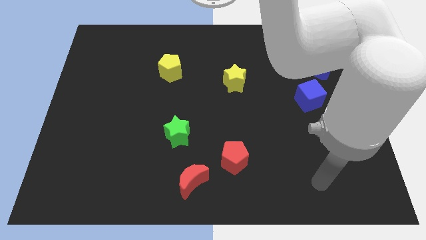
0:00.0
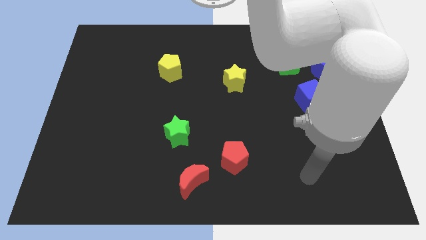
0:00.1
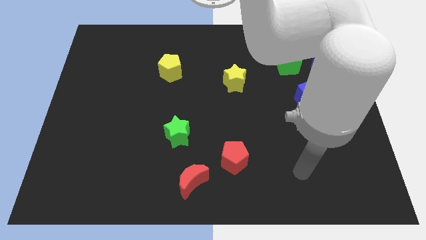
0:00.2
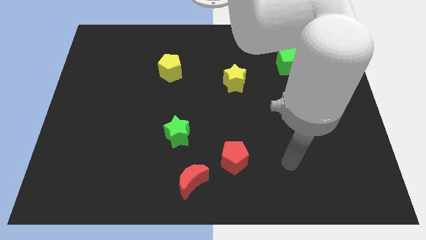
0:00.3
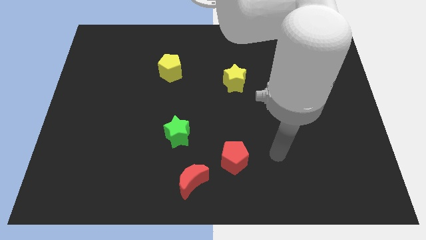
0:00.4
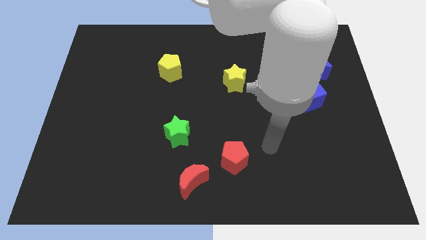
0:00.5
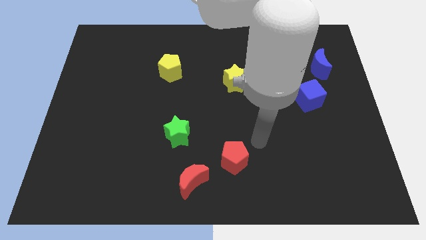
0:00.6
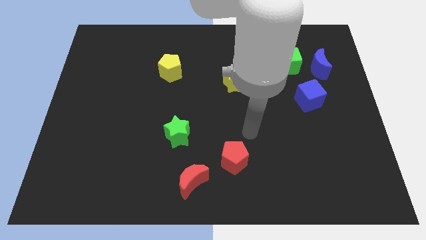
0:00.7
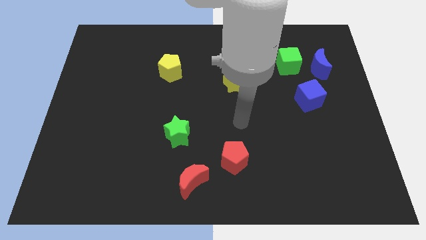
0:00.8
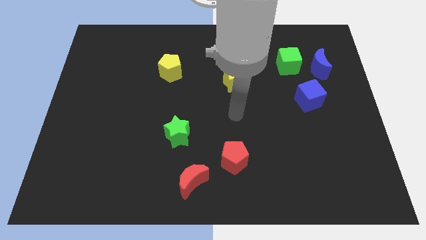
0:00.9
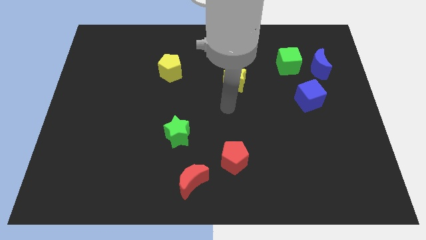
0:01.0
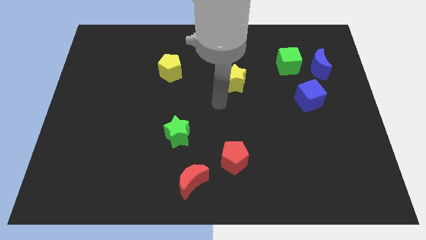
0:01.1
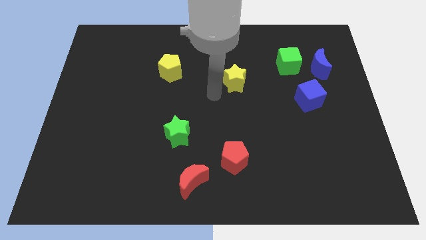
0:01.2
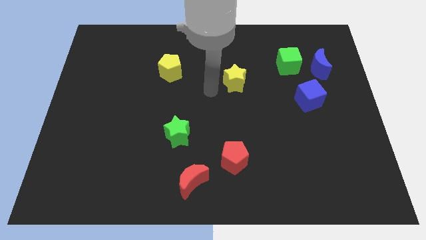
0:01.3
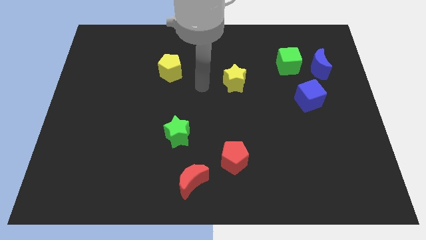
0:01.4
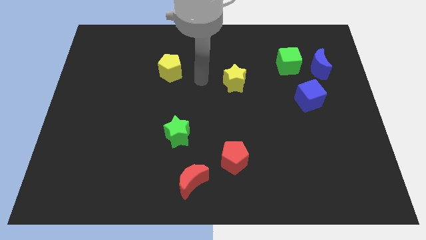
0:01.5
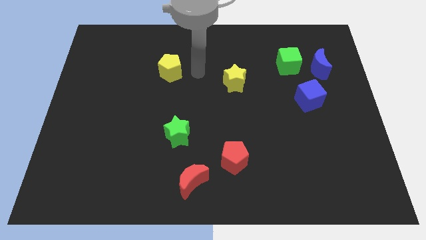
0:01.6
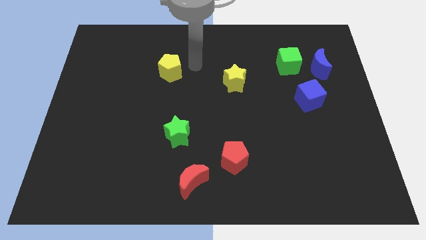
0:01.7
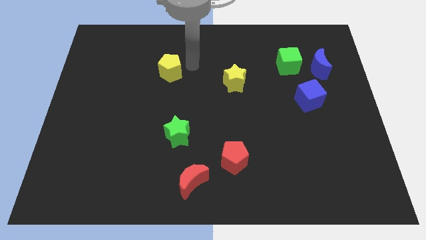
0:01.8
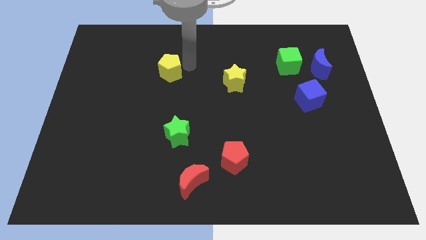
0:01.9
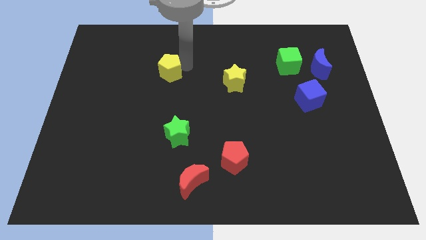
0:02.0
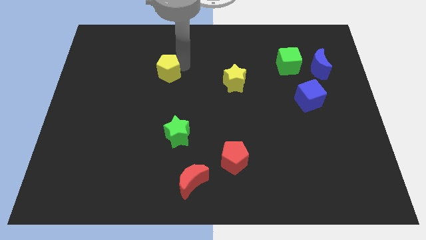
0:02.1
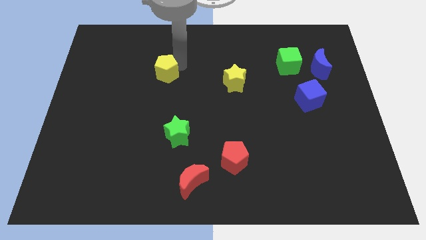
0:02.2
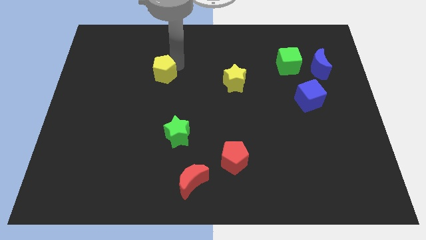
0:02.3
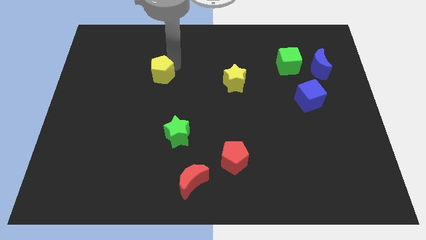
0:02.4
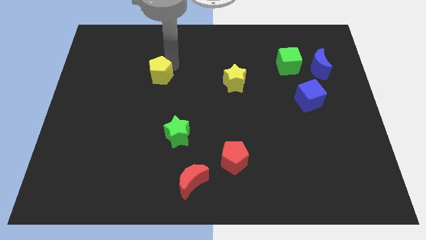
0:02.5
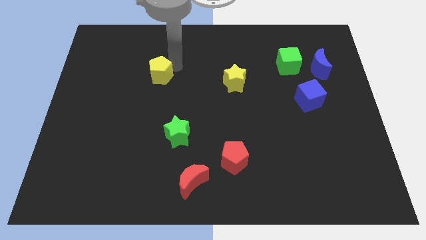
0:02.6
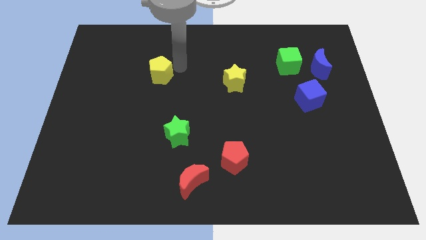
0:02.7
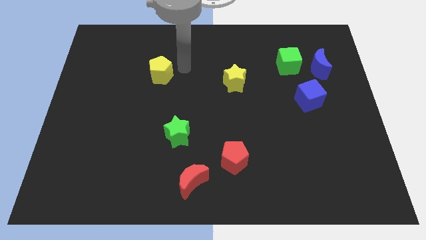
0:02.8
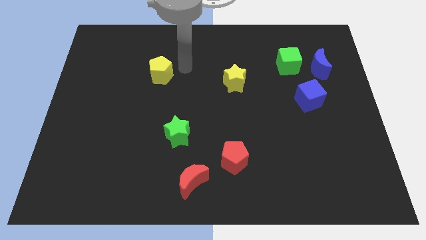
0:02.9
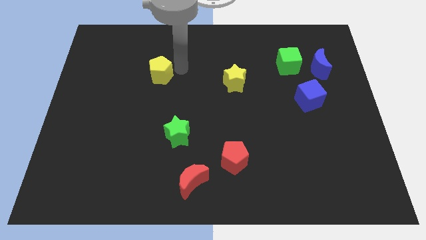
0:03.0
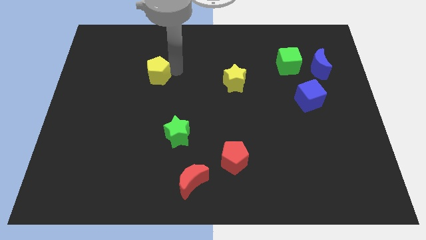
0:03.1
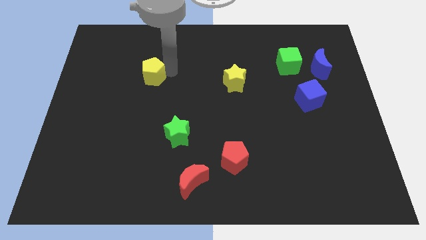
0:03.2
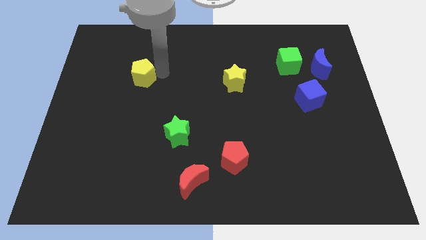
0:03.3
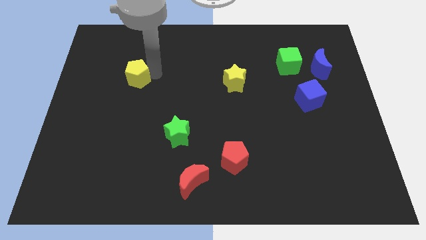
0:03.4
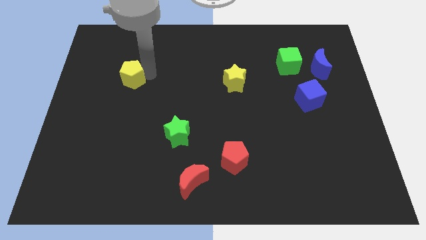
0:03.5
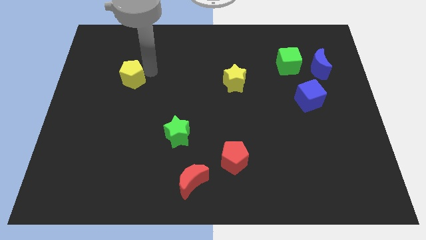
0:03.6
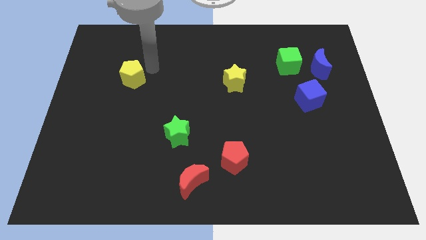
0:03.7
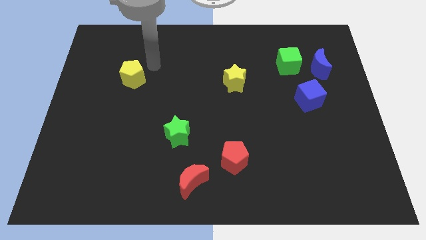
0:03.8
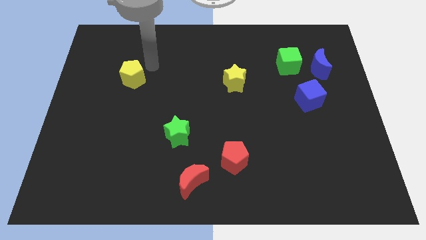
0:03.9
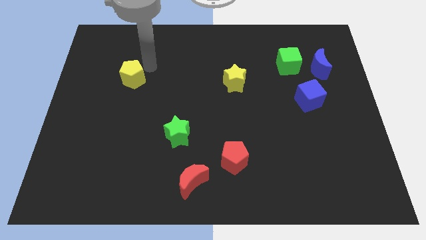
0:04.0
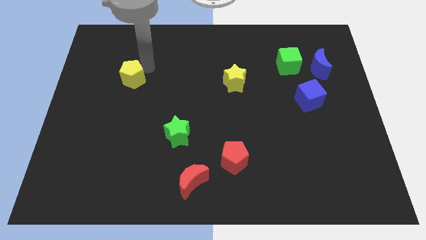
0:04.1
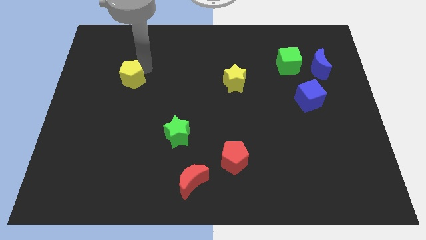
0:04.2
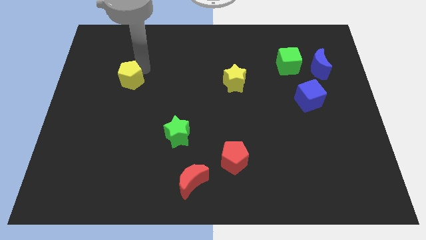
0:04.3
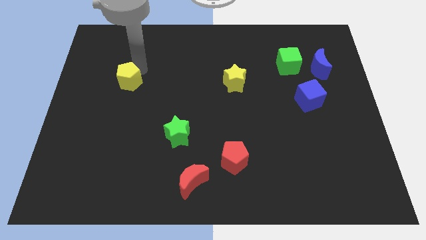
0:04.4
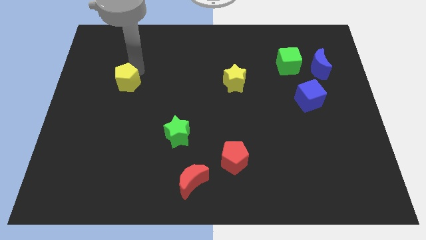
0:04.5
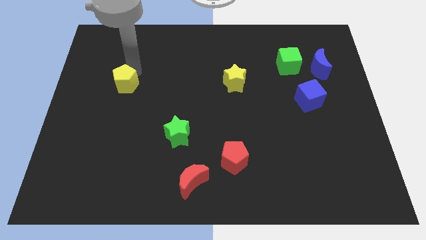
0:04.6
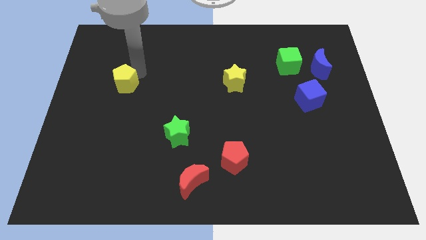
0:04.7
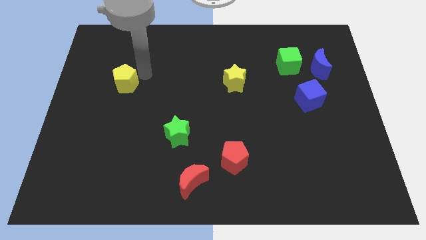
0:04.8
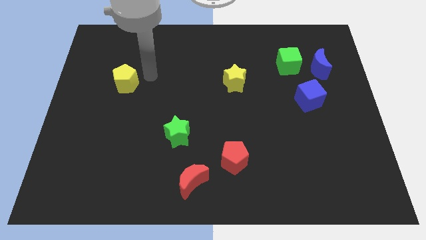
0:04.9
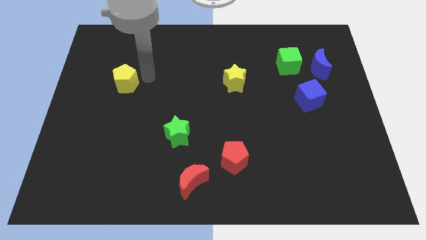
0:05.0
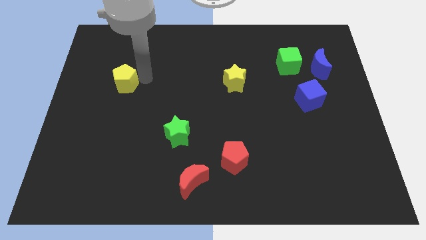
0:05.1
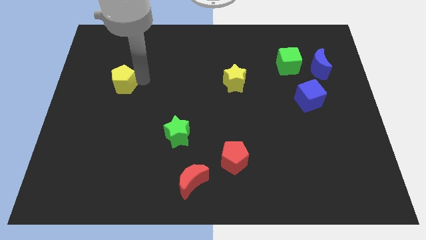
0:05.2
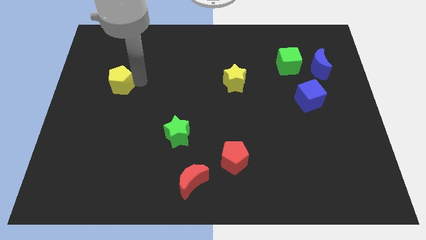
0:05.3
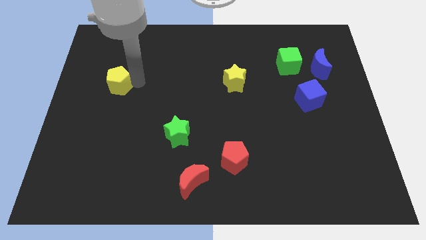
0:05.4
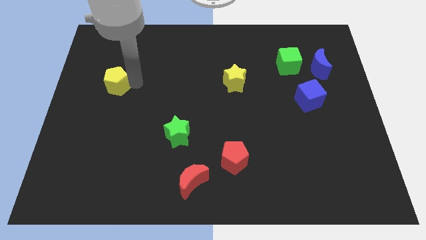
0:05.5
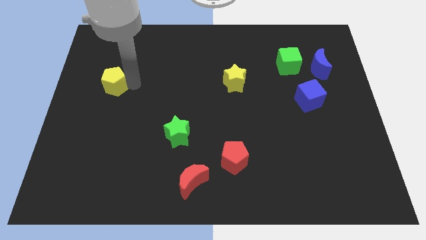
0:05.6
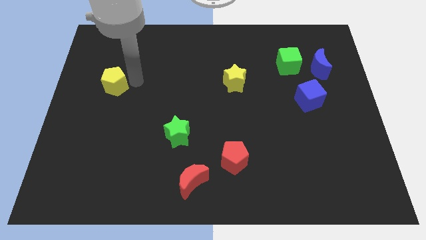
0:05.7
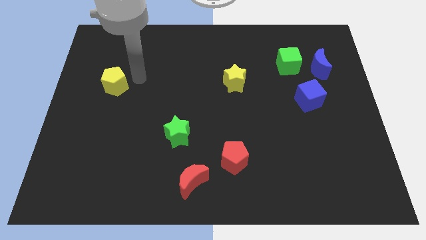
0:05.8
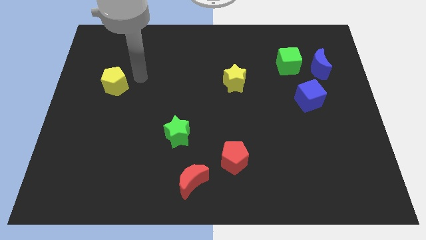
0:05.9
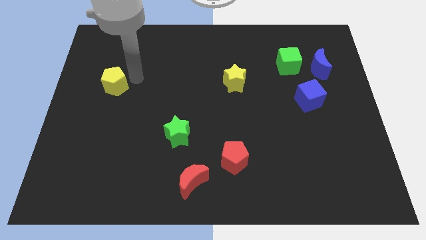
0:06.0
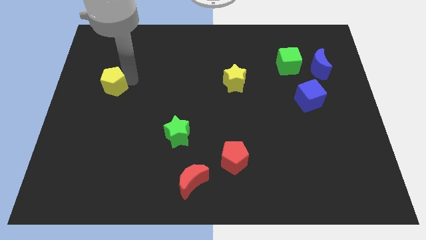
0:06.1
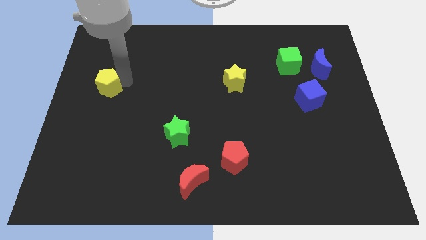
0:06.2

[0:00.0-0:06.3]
move the yellow pentagon to the center left
